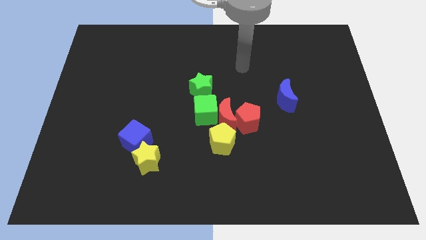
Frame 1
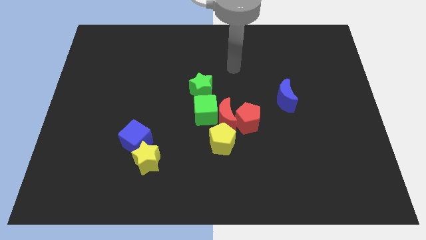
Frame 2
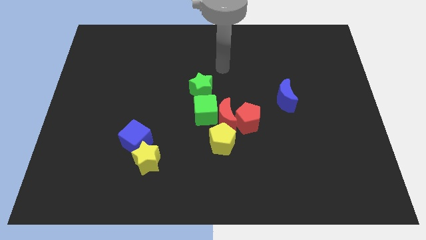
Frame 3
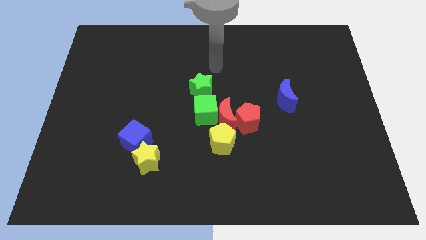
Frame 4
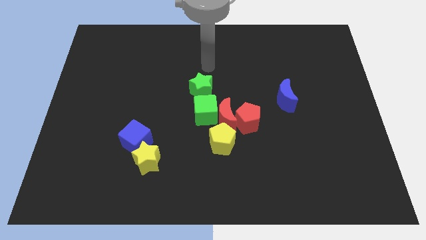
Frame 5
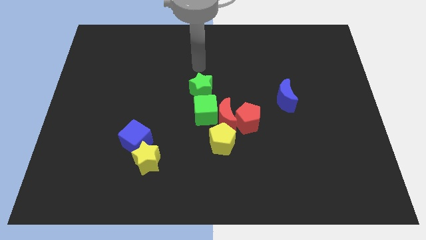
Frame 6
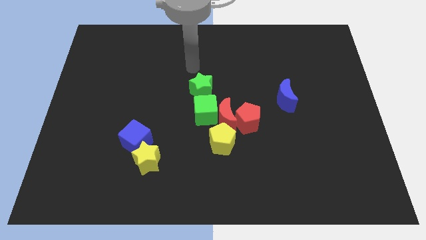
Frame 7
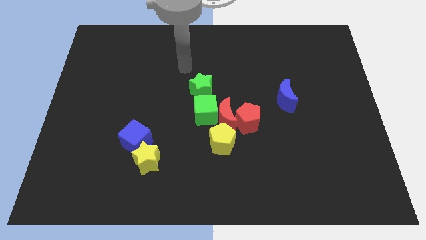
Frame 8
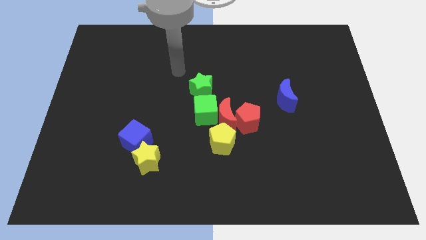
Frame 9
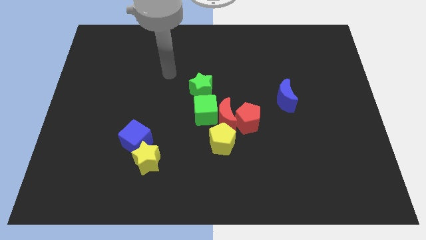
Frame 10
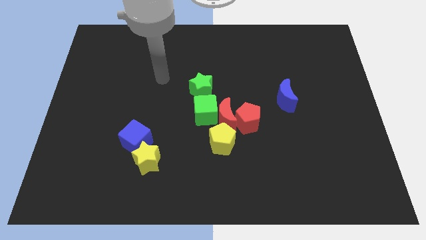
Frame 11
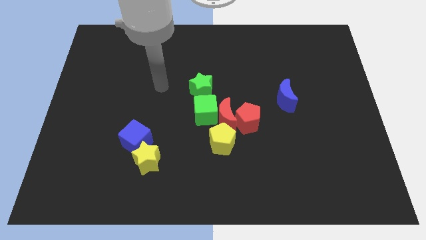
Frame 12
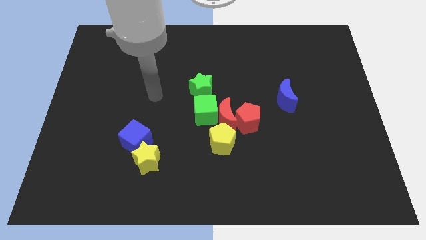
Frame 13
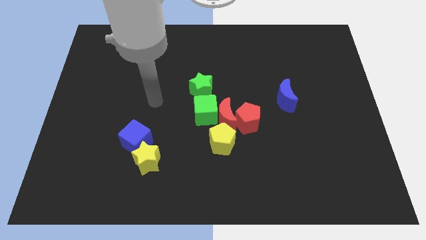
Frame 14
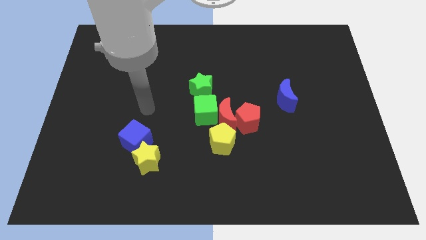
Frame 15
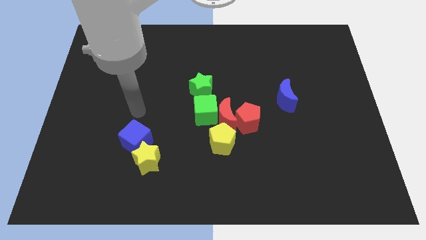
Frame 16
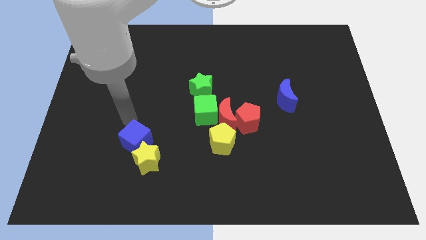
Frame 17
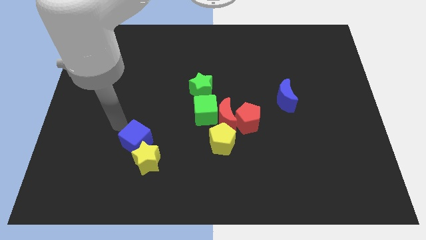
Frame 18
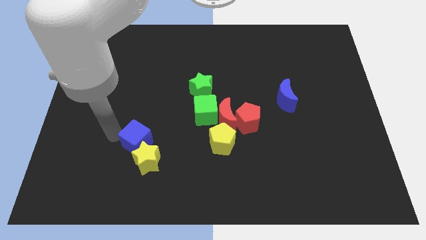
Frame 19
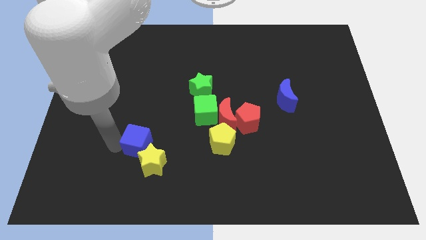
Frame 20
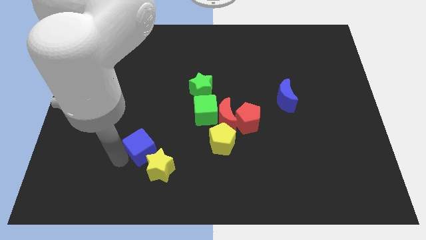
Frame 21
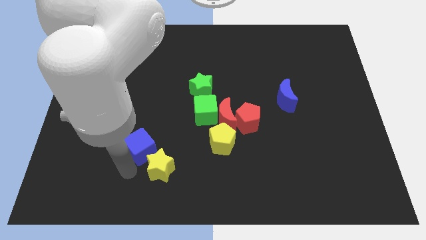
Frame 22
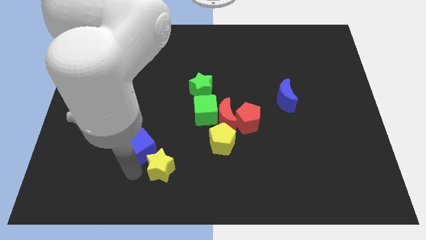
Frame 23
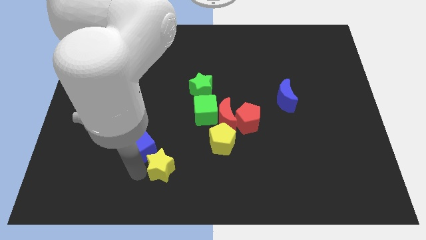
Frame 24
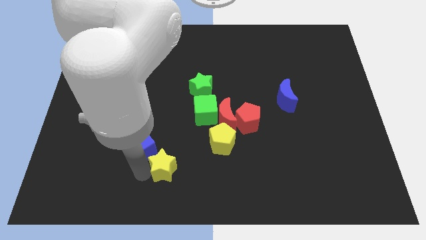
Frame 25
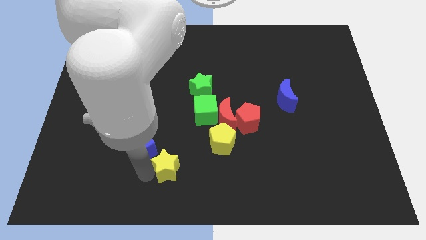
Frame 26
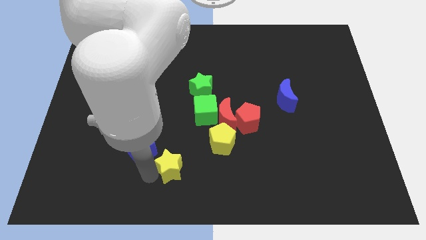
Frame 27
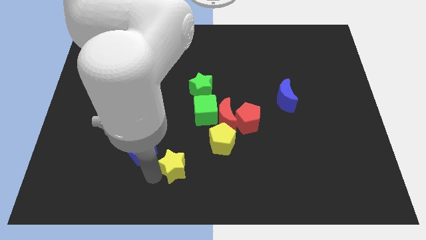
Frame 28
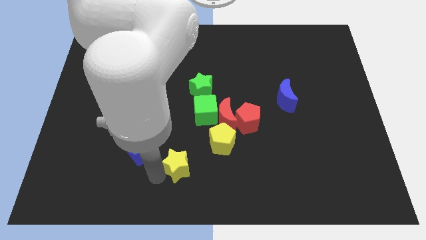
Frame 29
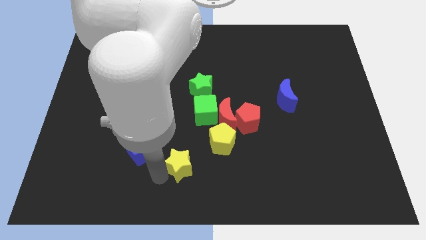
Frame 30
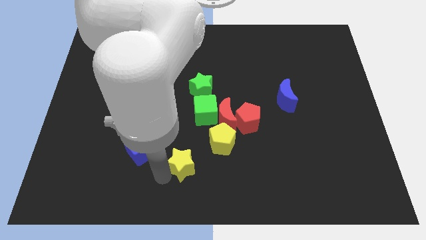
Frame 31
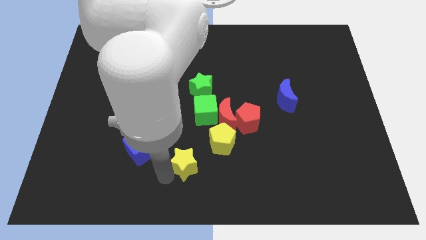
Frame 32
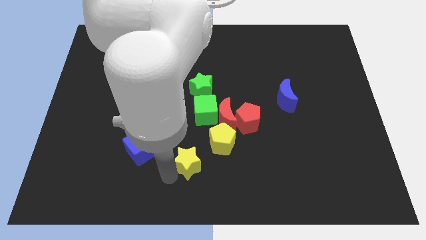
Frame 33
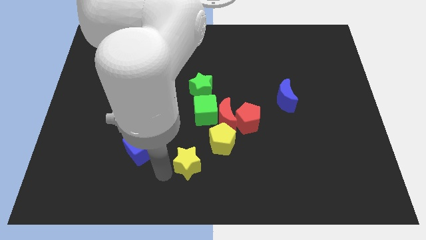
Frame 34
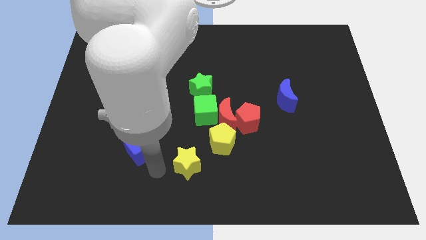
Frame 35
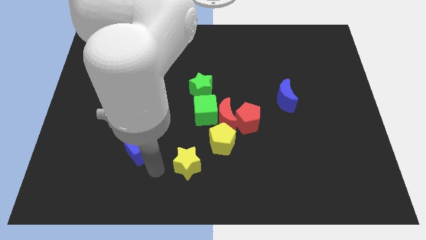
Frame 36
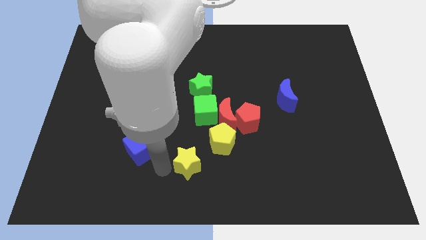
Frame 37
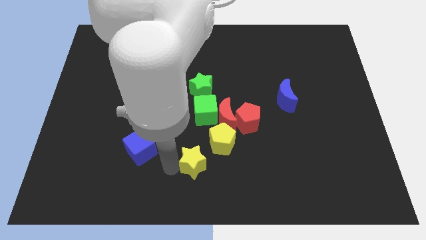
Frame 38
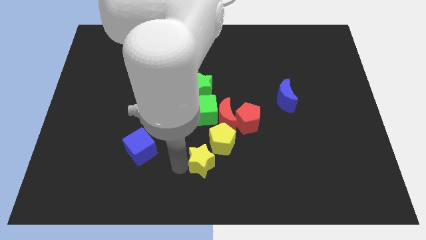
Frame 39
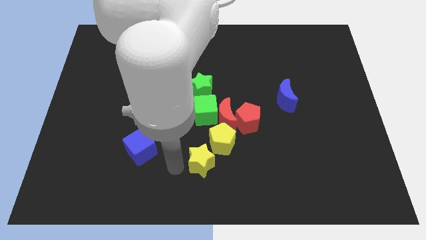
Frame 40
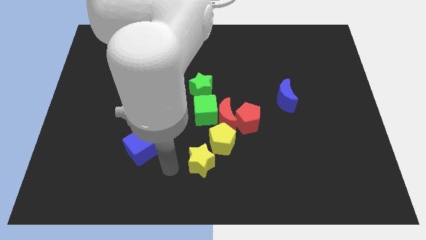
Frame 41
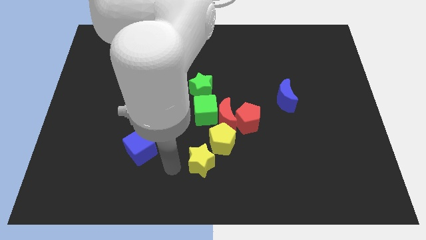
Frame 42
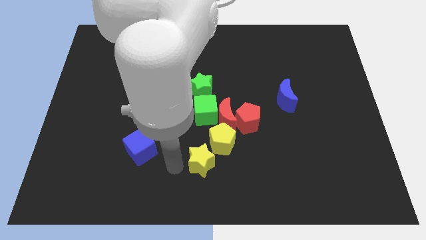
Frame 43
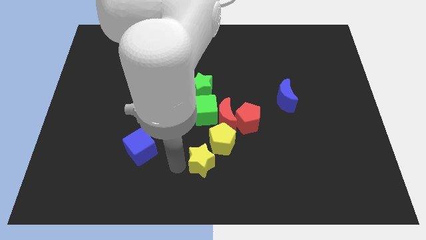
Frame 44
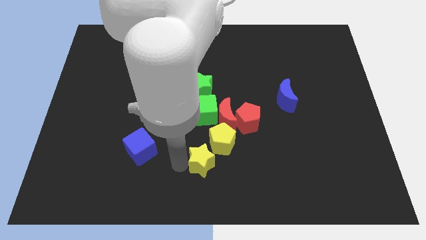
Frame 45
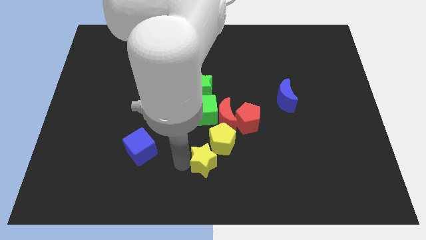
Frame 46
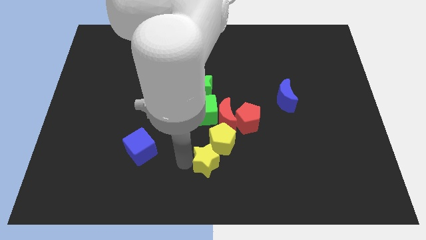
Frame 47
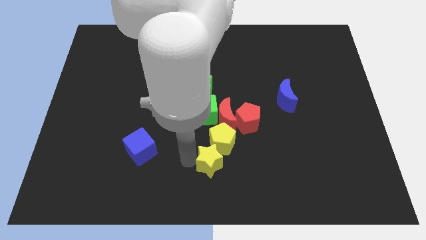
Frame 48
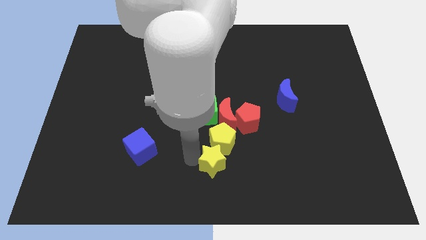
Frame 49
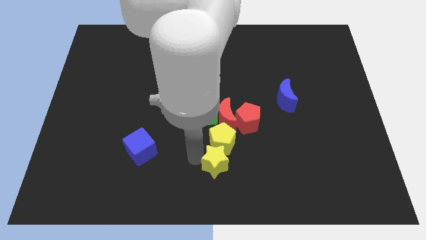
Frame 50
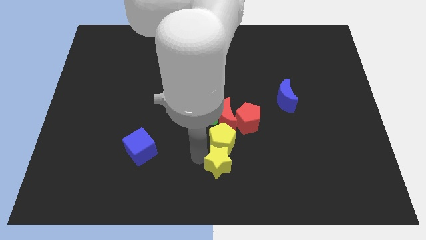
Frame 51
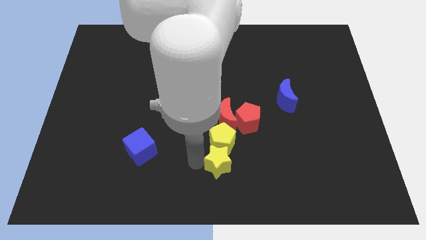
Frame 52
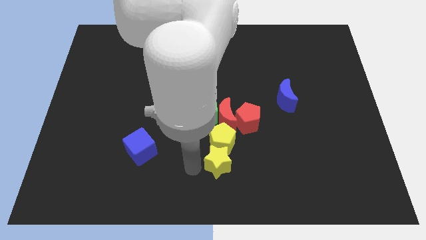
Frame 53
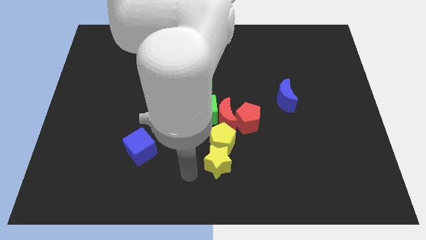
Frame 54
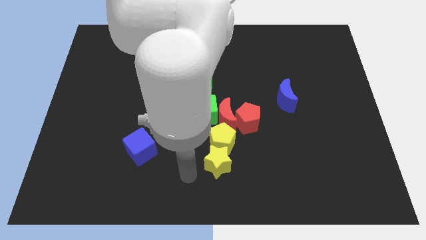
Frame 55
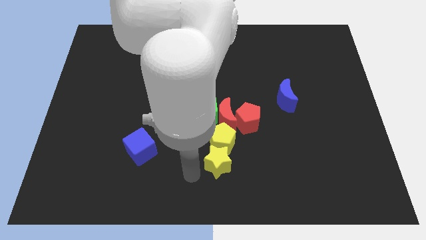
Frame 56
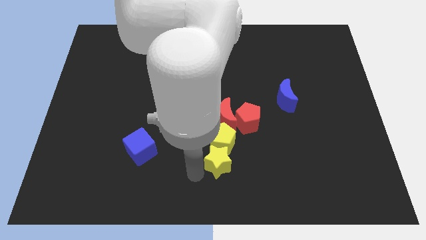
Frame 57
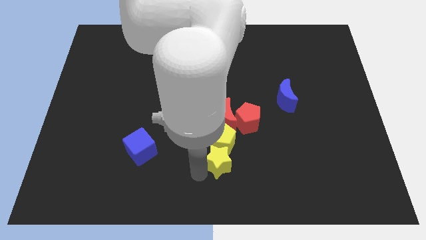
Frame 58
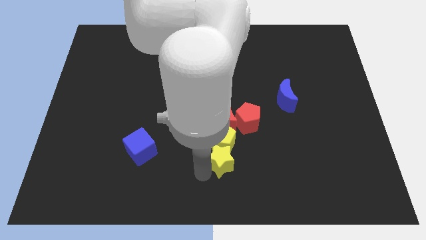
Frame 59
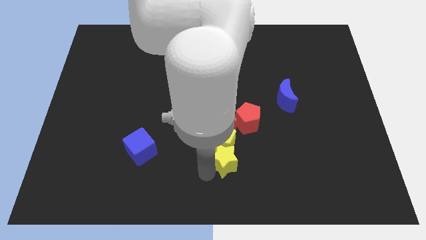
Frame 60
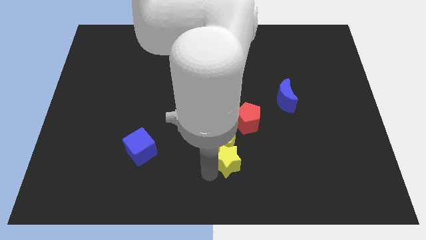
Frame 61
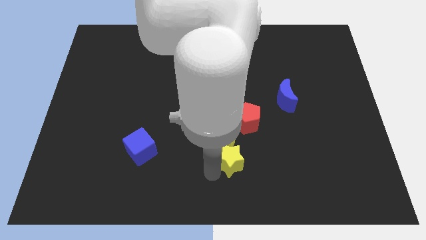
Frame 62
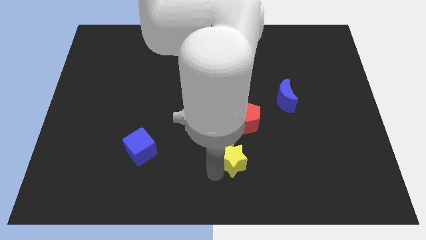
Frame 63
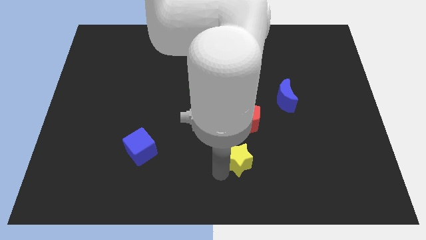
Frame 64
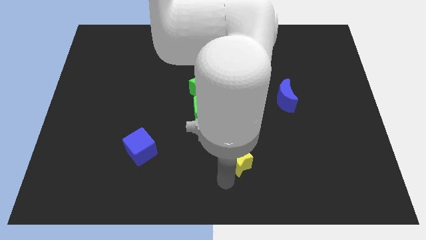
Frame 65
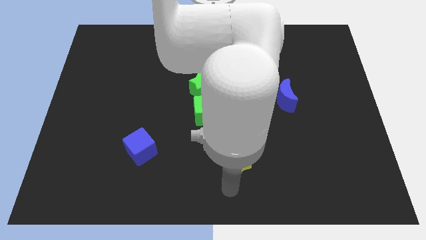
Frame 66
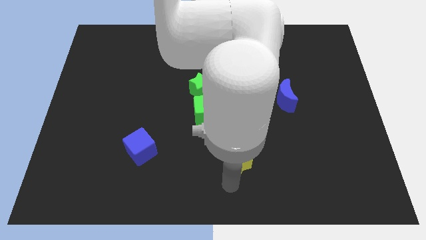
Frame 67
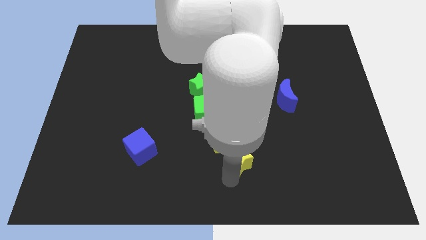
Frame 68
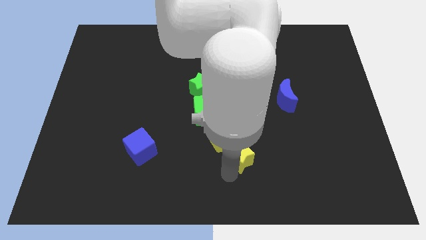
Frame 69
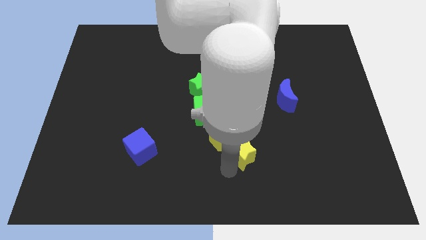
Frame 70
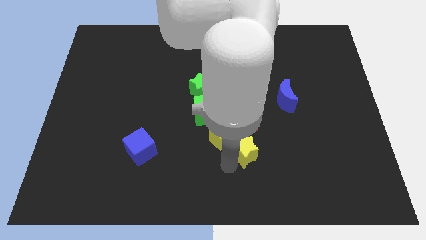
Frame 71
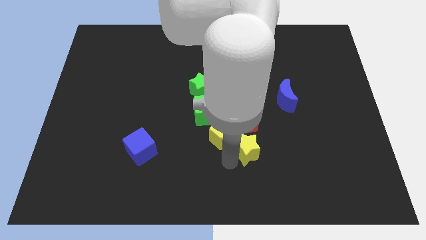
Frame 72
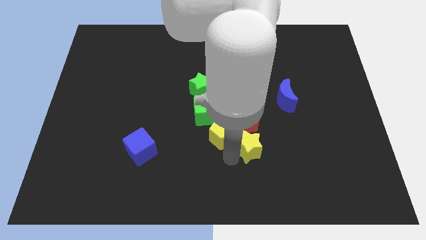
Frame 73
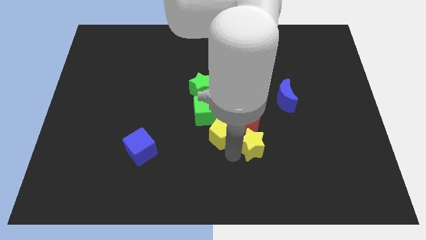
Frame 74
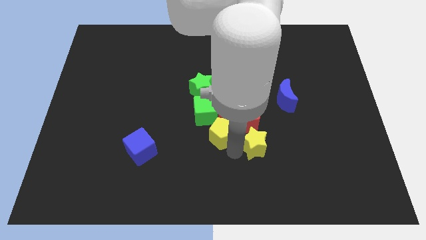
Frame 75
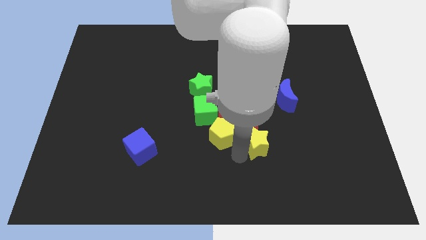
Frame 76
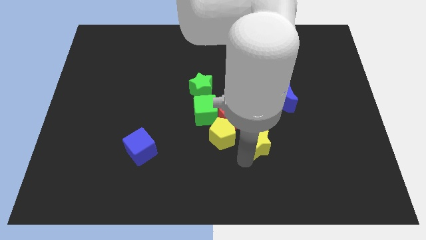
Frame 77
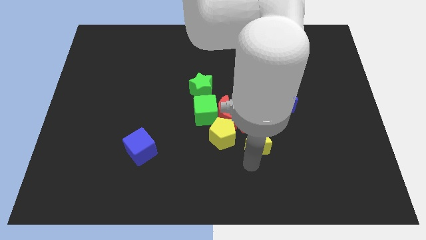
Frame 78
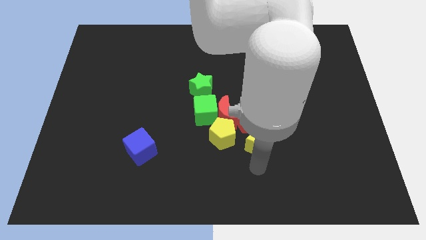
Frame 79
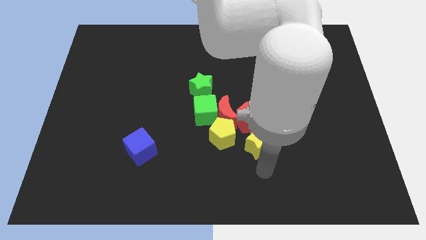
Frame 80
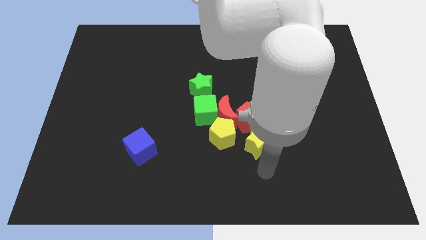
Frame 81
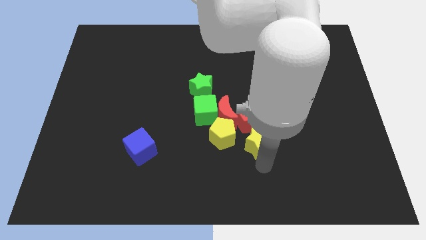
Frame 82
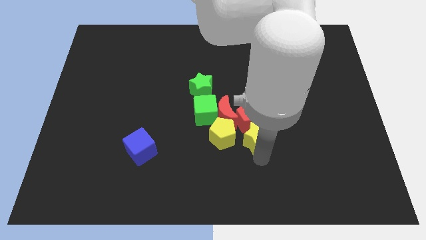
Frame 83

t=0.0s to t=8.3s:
slide the yellow star next to the red pentagon
